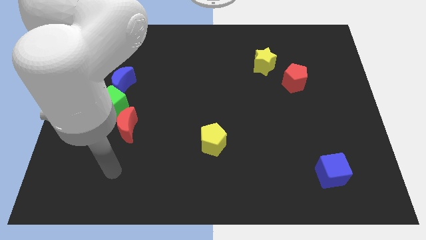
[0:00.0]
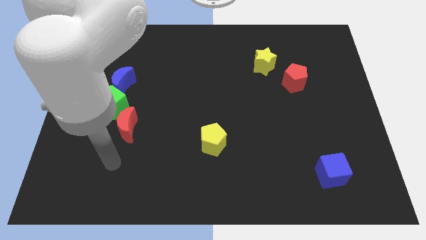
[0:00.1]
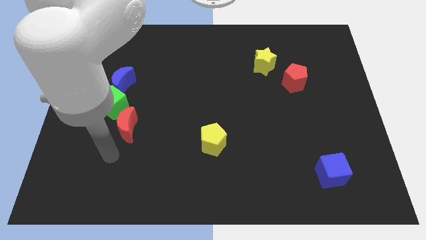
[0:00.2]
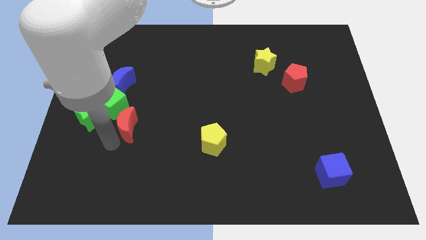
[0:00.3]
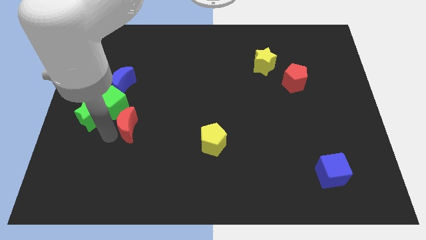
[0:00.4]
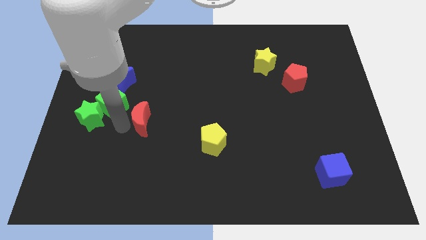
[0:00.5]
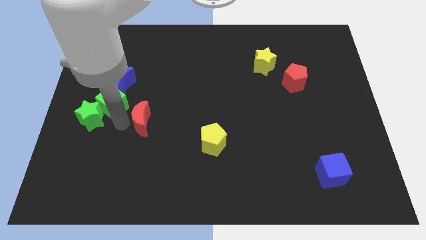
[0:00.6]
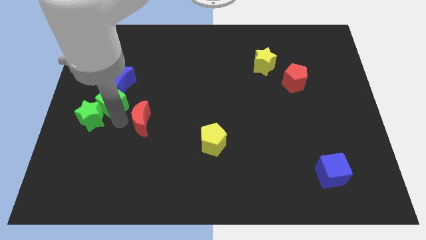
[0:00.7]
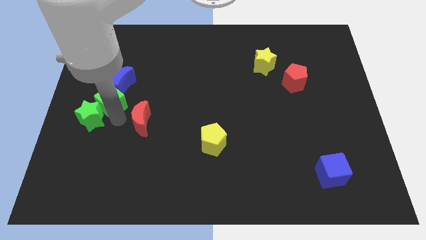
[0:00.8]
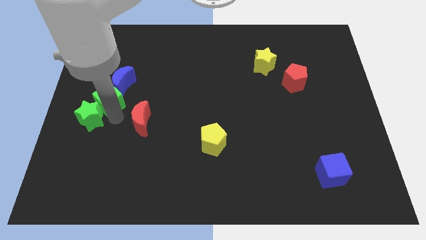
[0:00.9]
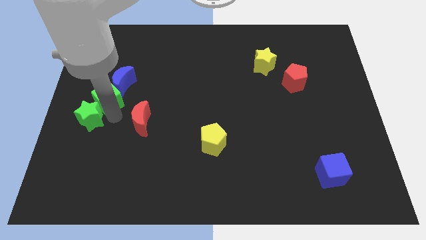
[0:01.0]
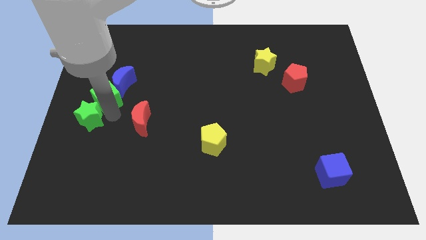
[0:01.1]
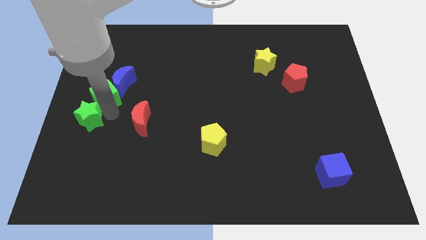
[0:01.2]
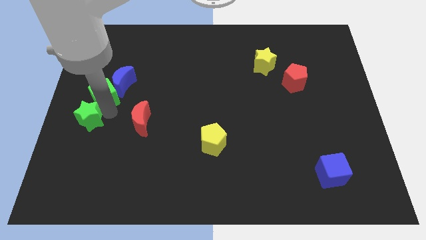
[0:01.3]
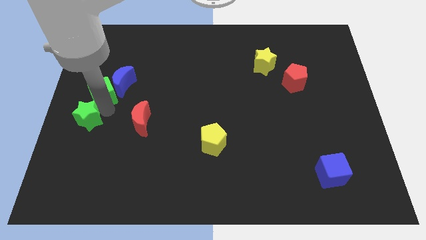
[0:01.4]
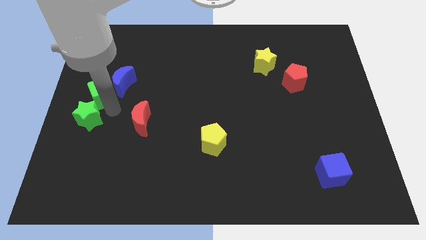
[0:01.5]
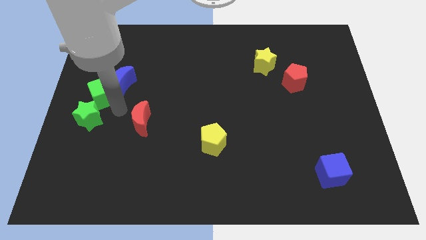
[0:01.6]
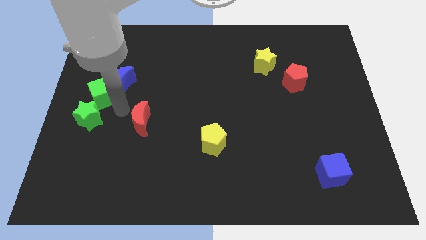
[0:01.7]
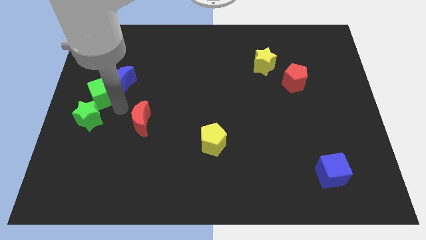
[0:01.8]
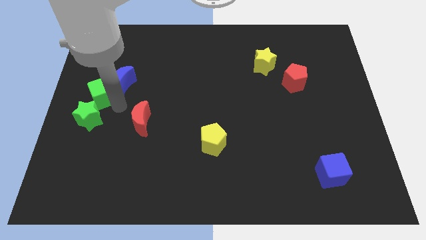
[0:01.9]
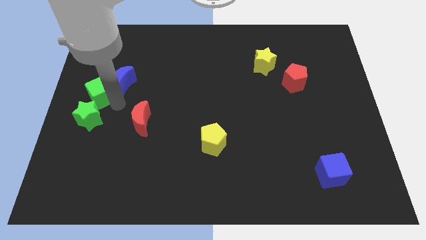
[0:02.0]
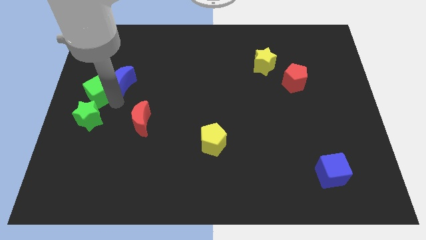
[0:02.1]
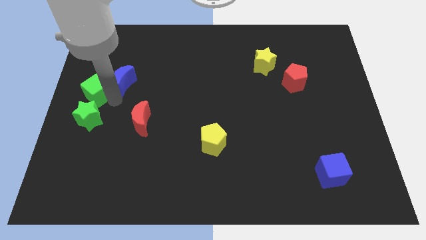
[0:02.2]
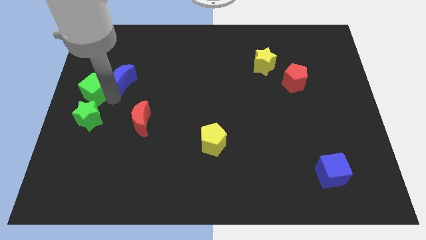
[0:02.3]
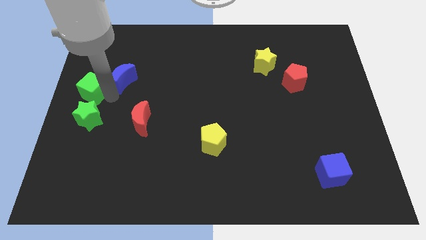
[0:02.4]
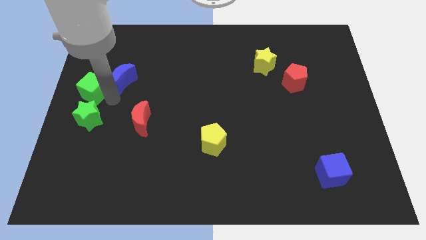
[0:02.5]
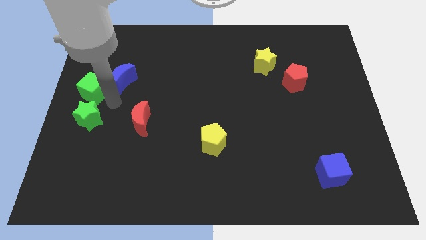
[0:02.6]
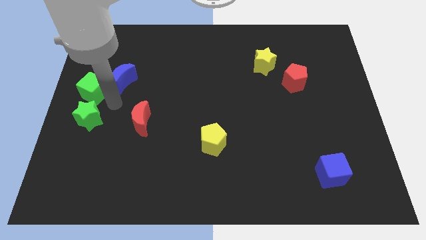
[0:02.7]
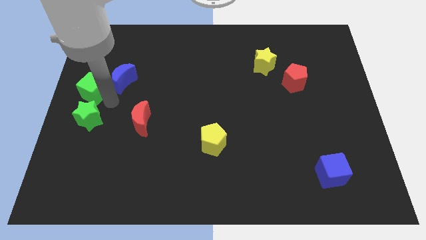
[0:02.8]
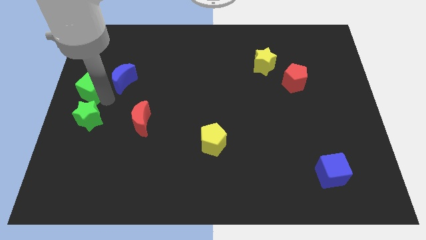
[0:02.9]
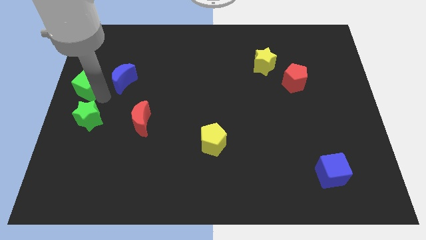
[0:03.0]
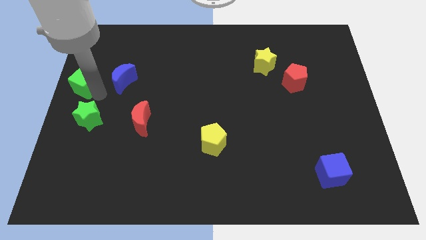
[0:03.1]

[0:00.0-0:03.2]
separate the green cube from the green star, blue moon, and red moon

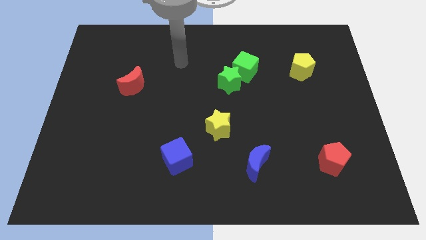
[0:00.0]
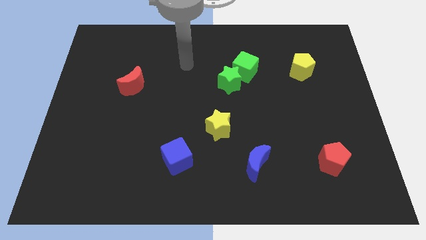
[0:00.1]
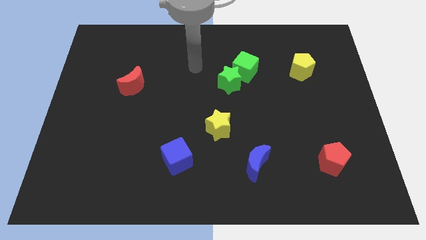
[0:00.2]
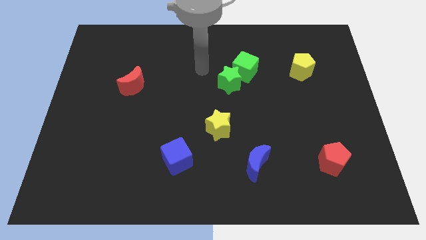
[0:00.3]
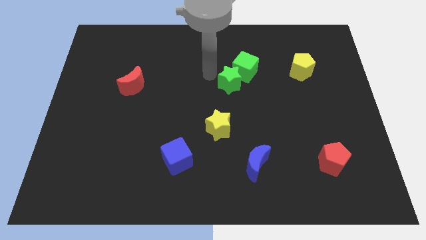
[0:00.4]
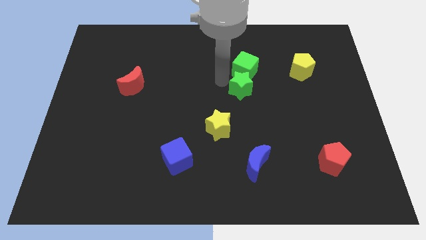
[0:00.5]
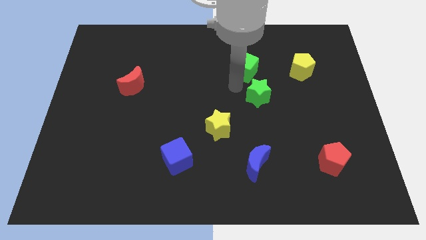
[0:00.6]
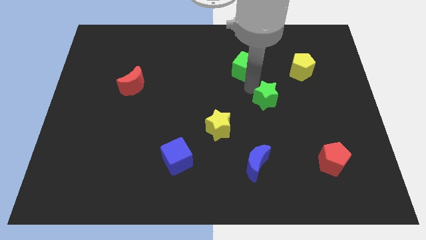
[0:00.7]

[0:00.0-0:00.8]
move the green cube away from the green star

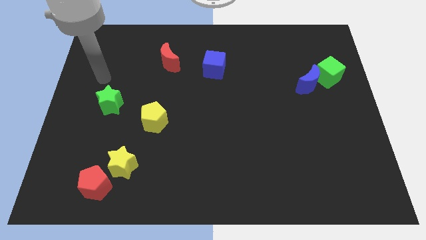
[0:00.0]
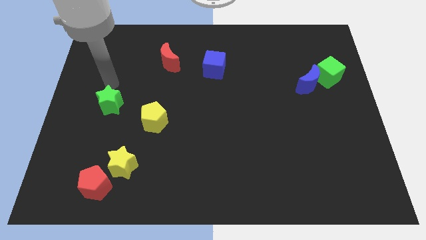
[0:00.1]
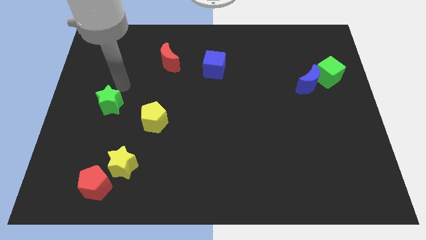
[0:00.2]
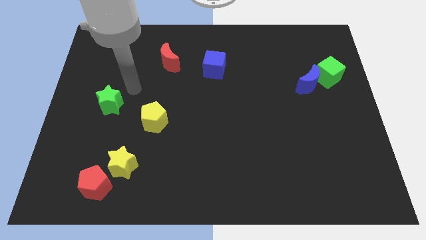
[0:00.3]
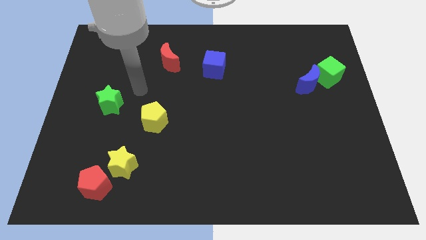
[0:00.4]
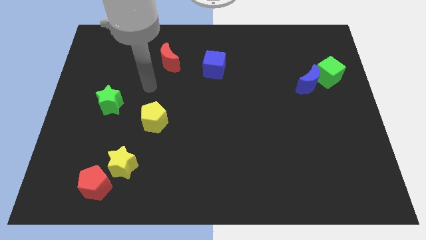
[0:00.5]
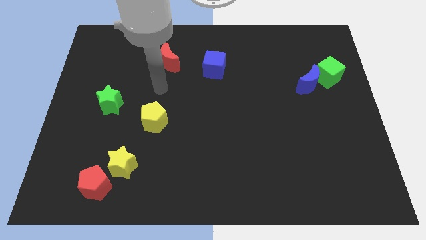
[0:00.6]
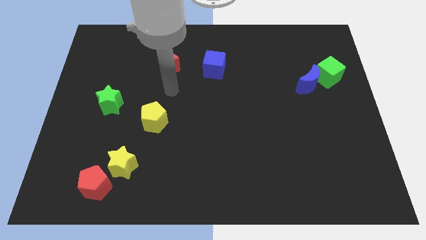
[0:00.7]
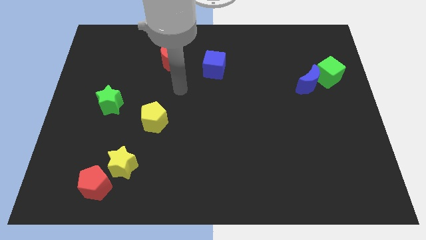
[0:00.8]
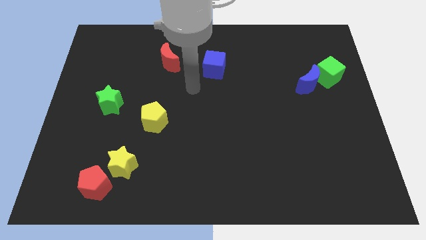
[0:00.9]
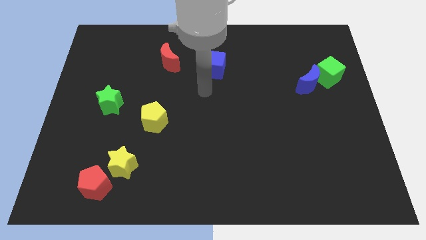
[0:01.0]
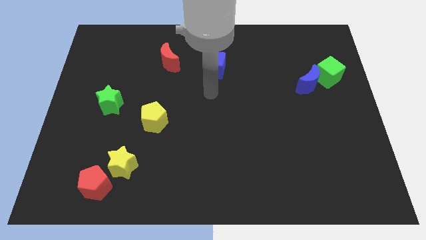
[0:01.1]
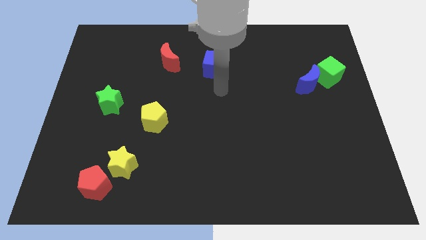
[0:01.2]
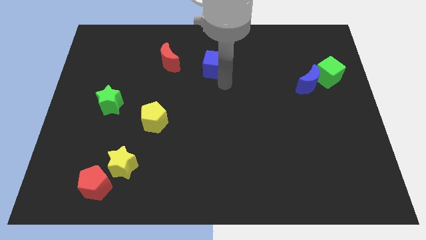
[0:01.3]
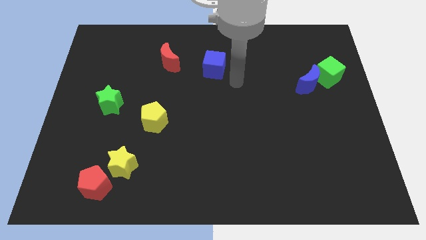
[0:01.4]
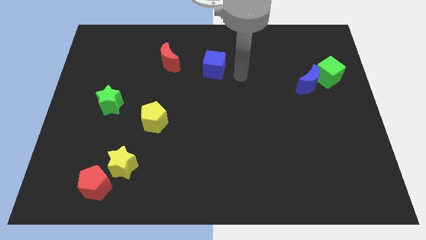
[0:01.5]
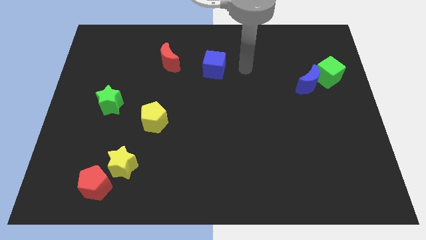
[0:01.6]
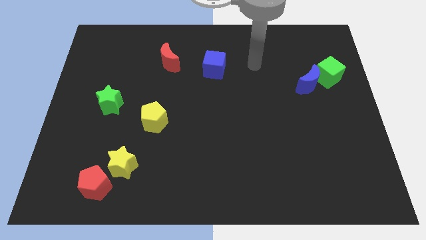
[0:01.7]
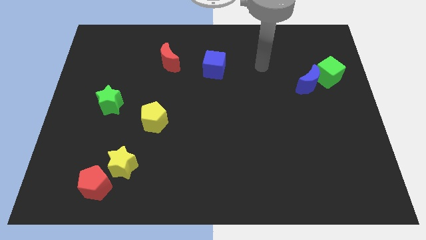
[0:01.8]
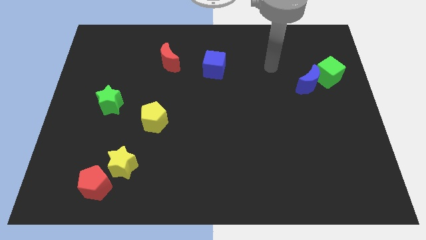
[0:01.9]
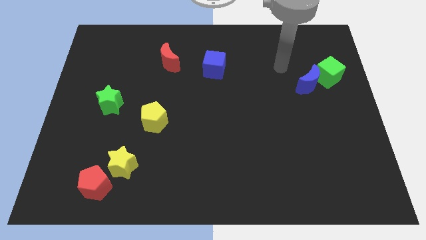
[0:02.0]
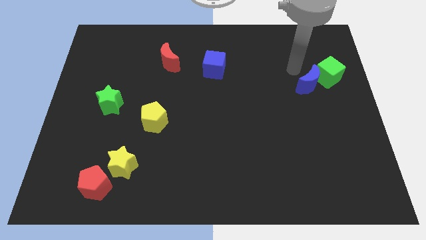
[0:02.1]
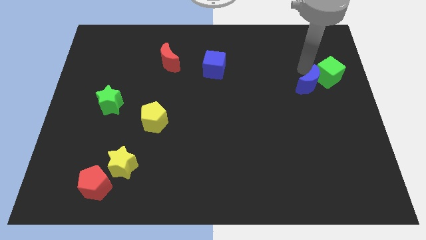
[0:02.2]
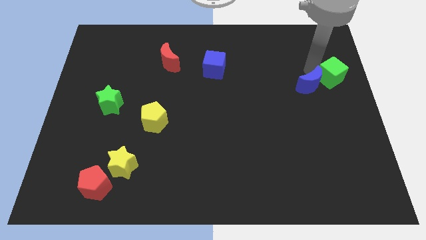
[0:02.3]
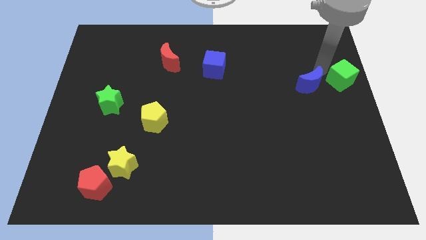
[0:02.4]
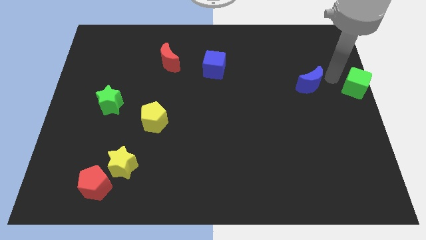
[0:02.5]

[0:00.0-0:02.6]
separate the blue moon from the green cube

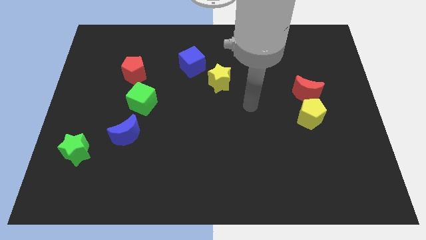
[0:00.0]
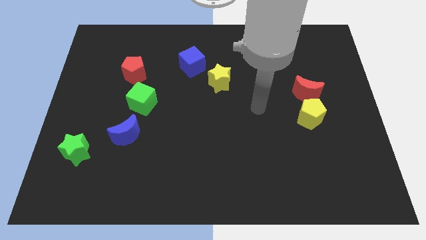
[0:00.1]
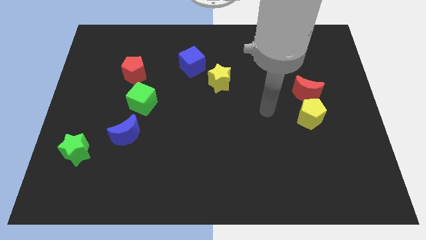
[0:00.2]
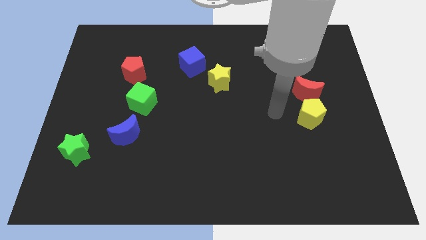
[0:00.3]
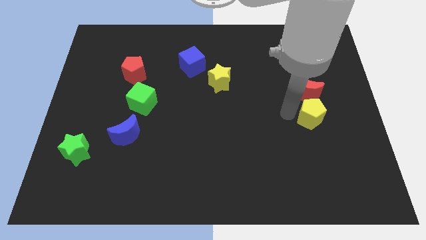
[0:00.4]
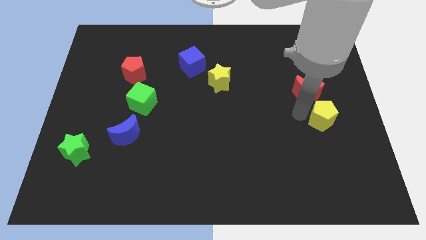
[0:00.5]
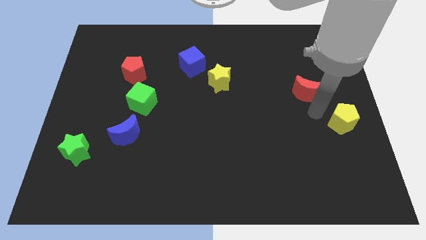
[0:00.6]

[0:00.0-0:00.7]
move the red moon away from the yellow pentagon

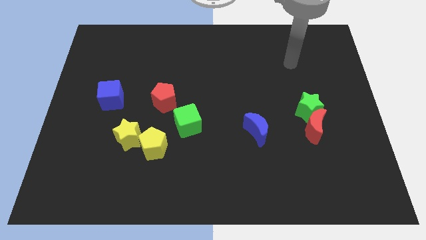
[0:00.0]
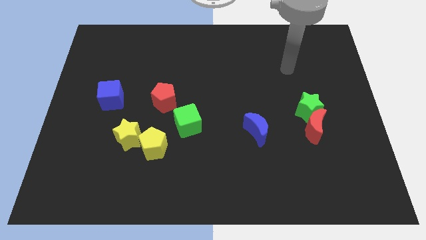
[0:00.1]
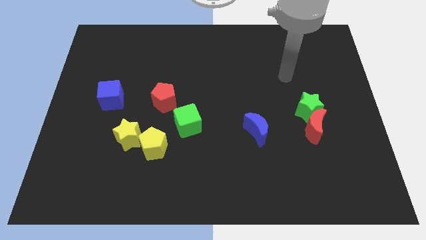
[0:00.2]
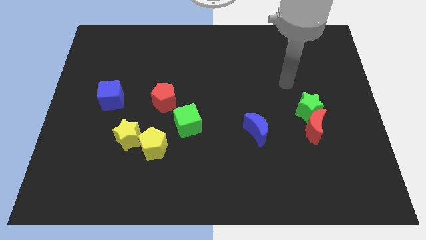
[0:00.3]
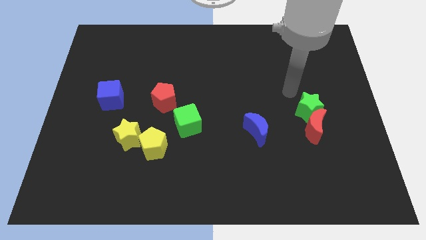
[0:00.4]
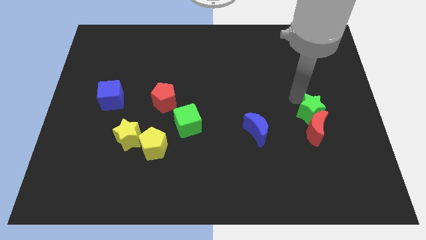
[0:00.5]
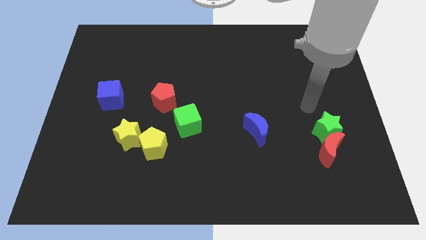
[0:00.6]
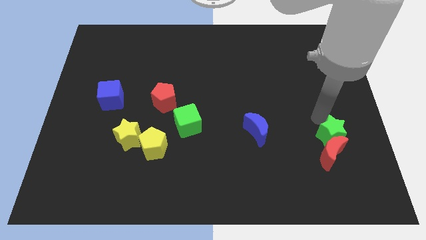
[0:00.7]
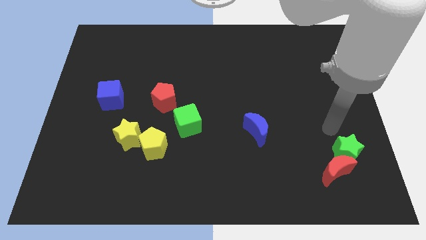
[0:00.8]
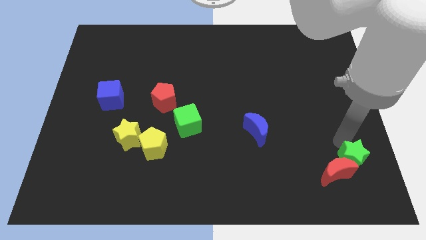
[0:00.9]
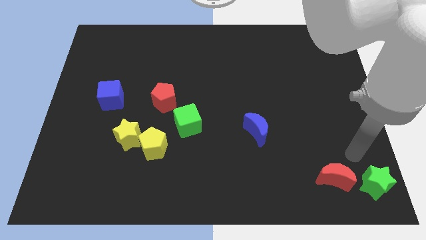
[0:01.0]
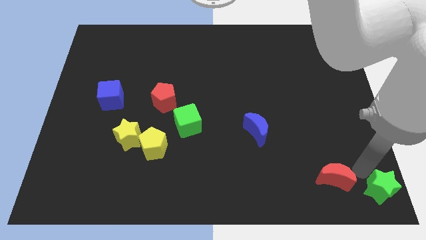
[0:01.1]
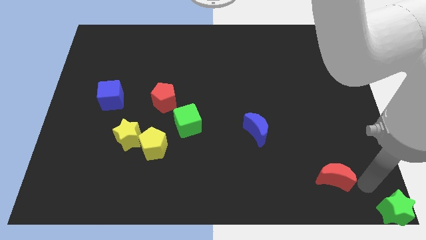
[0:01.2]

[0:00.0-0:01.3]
move the red moon away from the green star

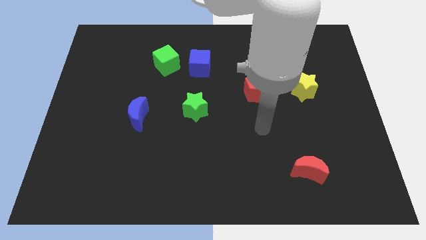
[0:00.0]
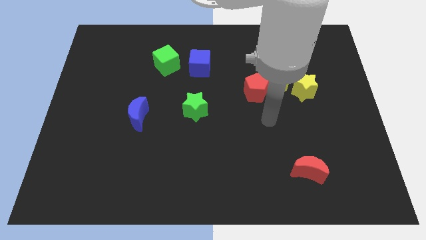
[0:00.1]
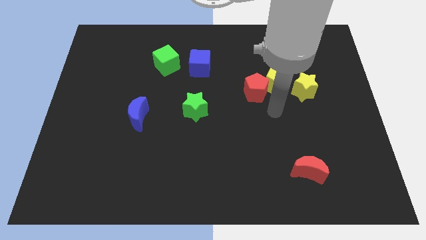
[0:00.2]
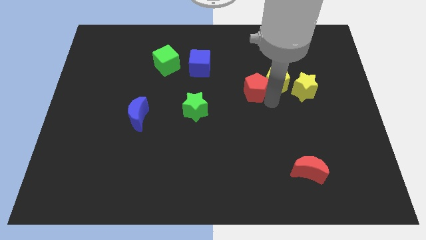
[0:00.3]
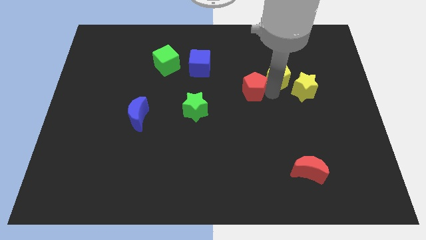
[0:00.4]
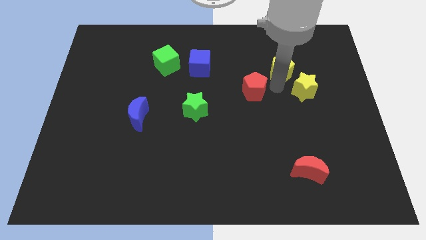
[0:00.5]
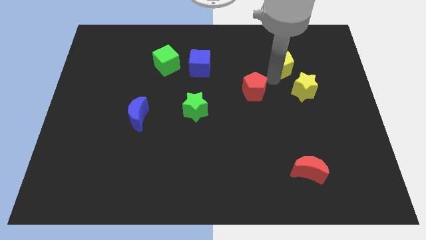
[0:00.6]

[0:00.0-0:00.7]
separate the red pentagon from the yellow pentagon
